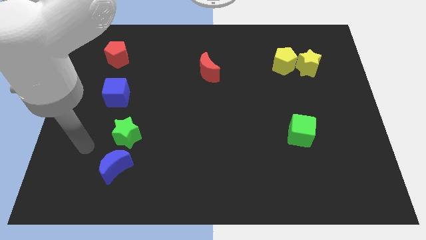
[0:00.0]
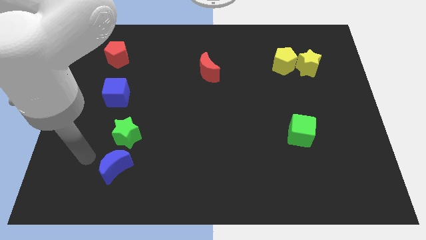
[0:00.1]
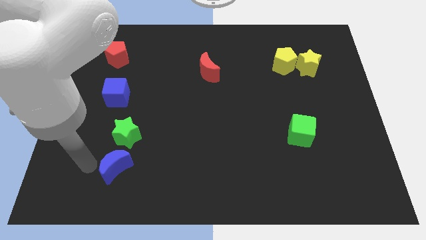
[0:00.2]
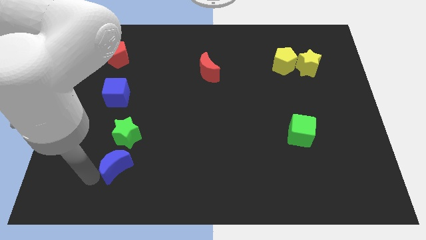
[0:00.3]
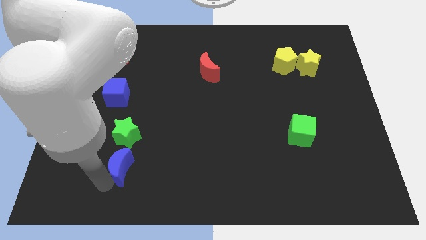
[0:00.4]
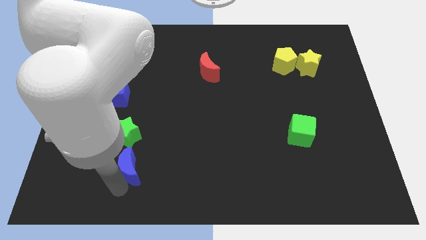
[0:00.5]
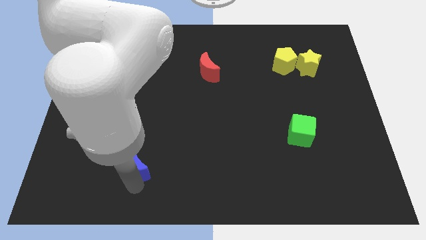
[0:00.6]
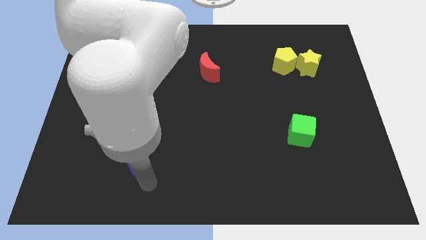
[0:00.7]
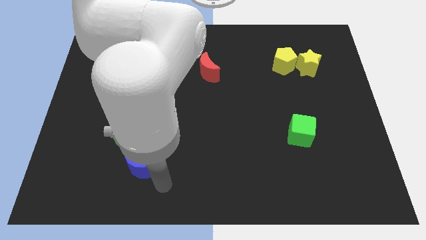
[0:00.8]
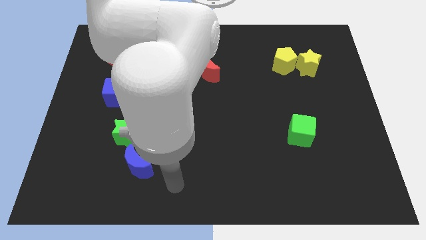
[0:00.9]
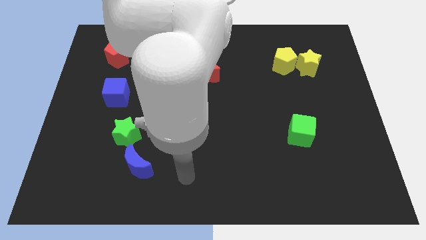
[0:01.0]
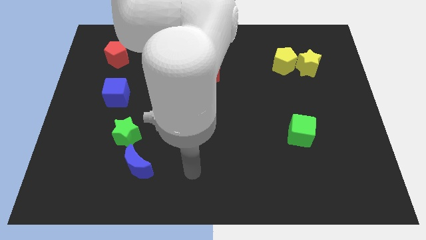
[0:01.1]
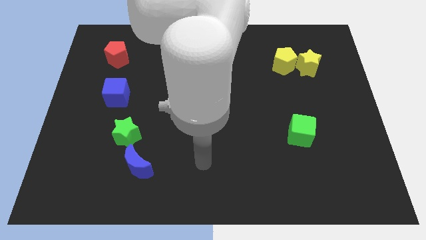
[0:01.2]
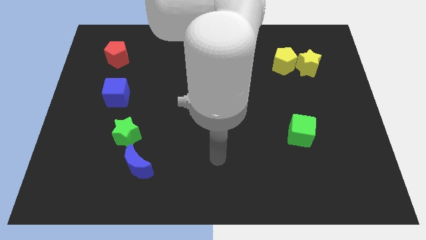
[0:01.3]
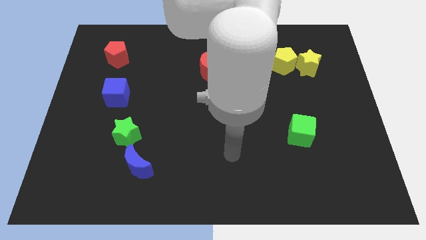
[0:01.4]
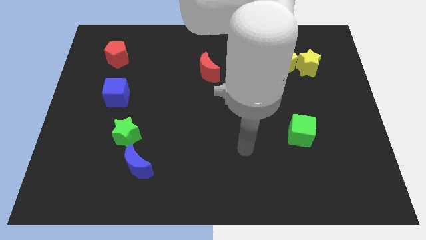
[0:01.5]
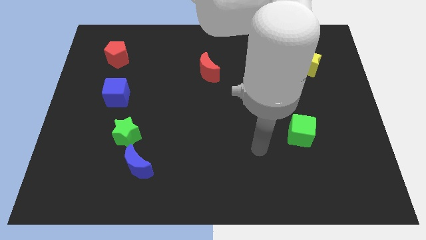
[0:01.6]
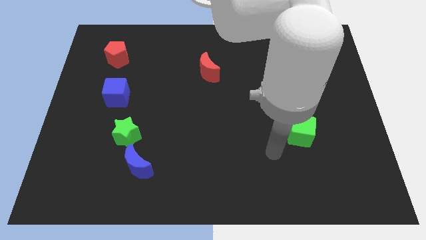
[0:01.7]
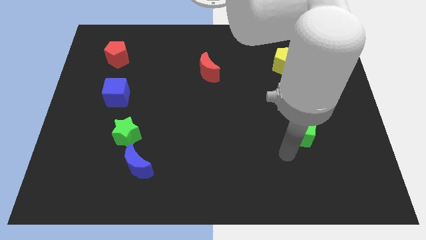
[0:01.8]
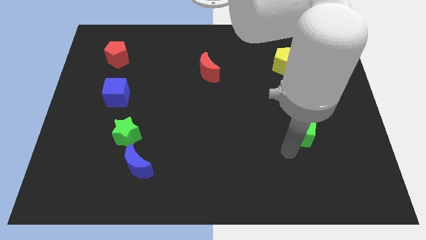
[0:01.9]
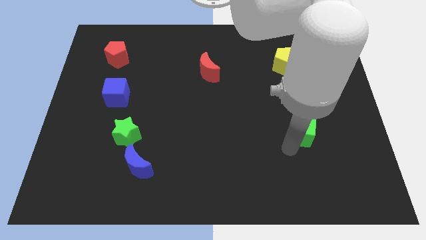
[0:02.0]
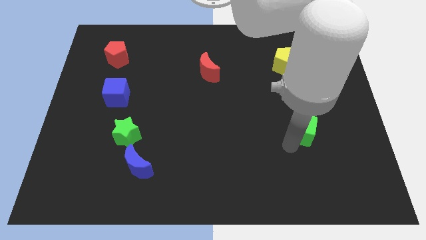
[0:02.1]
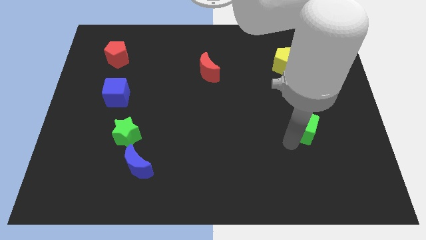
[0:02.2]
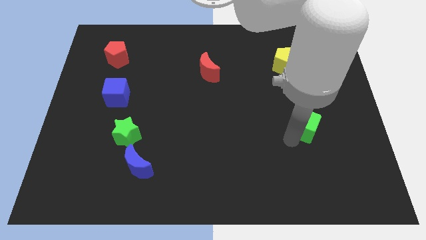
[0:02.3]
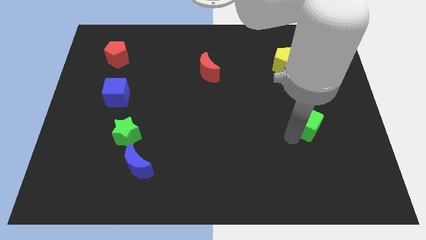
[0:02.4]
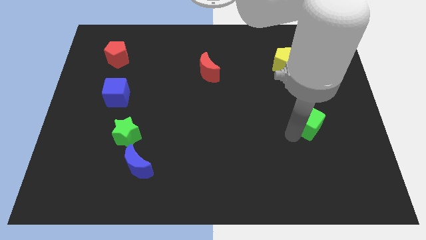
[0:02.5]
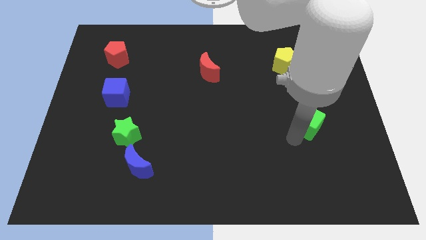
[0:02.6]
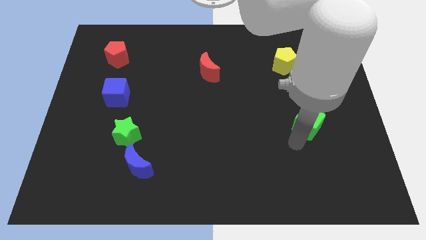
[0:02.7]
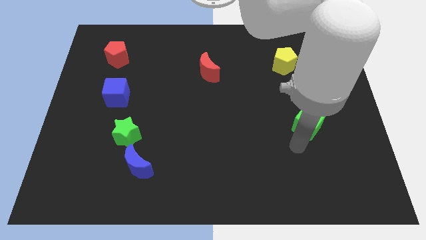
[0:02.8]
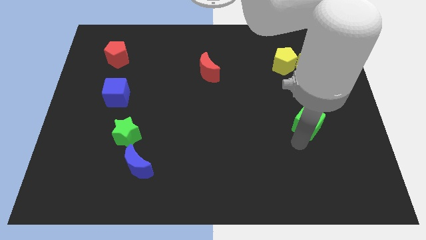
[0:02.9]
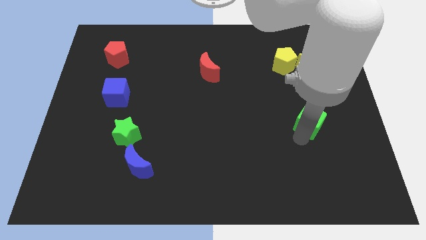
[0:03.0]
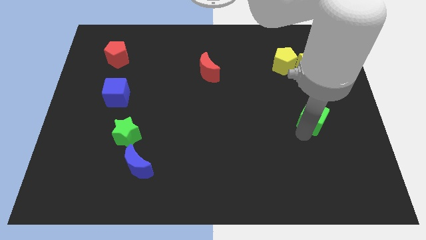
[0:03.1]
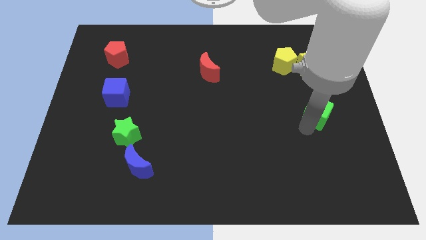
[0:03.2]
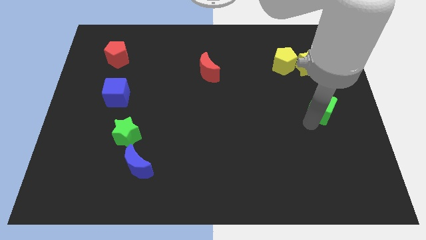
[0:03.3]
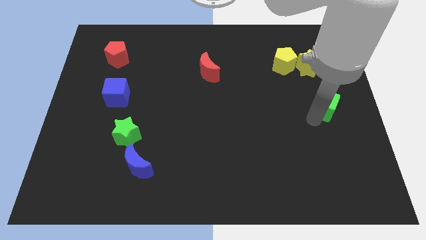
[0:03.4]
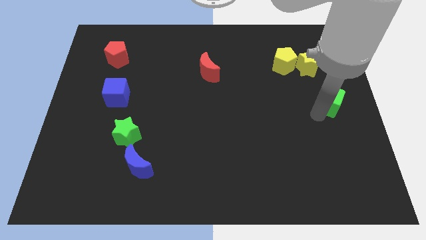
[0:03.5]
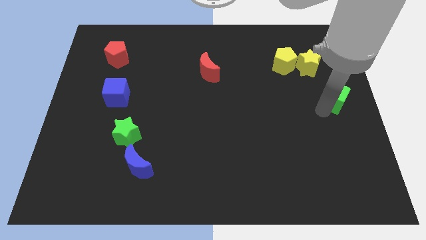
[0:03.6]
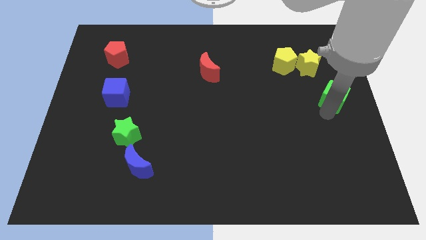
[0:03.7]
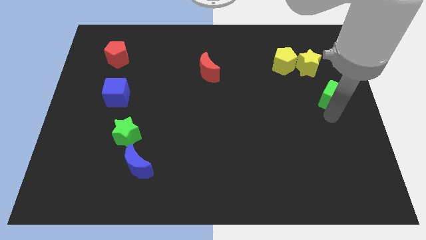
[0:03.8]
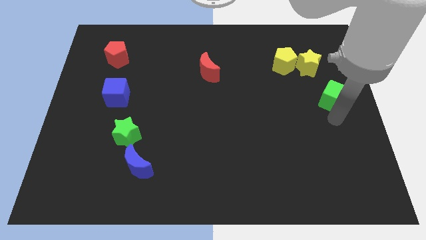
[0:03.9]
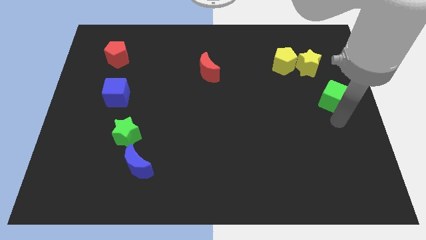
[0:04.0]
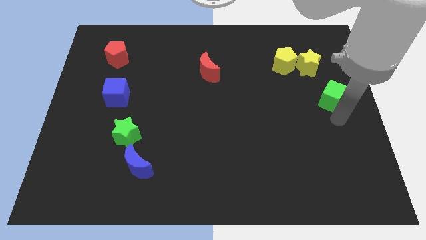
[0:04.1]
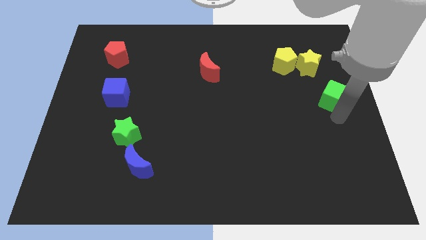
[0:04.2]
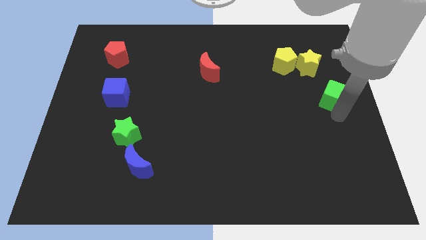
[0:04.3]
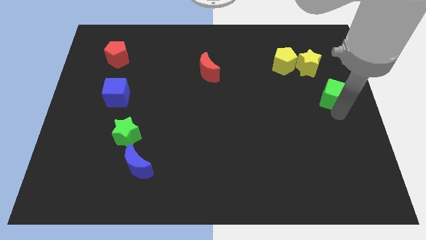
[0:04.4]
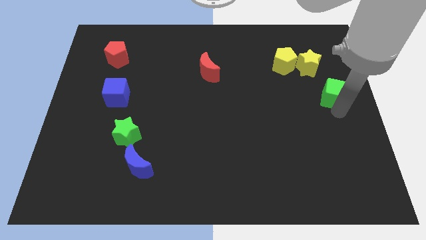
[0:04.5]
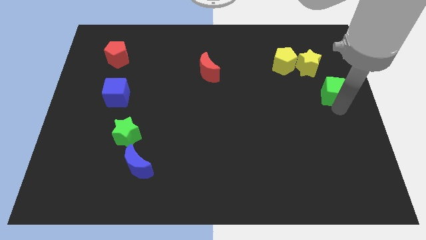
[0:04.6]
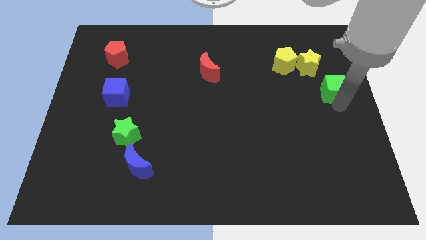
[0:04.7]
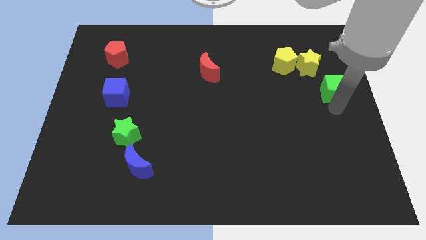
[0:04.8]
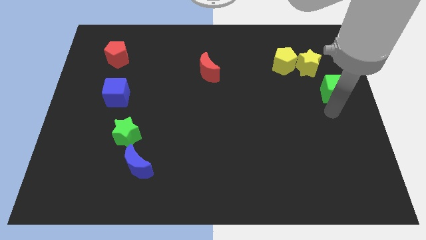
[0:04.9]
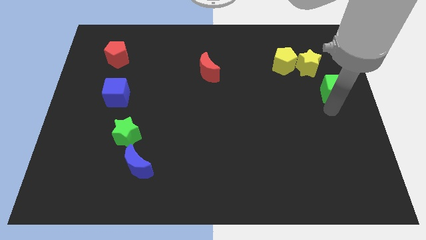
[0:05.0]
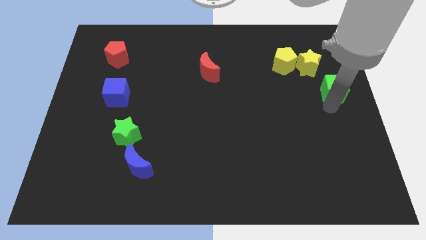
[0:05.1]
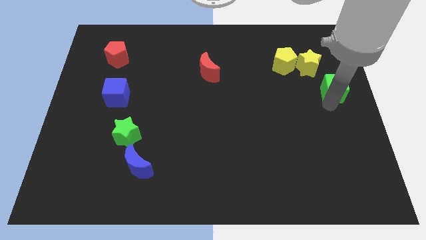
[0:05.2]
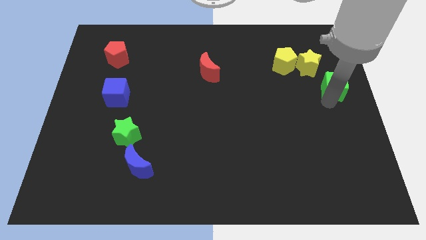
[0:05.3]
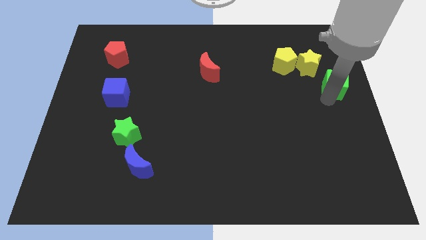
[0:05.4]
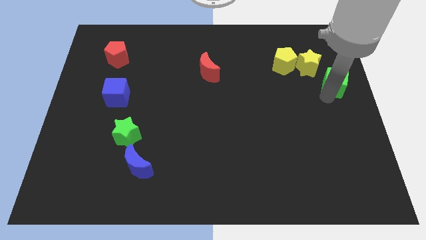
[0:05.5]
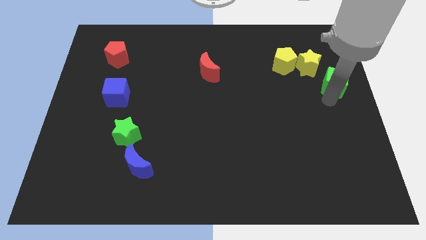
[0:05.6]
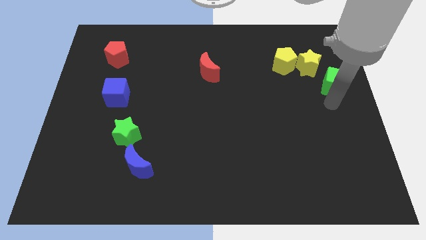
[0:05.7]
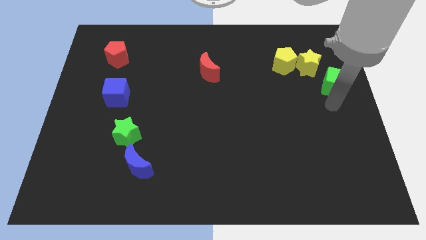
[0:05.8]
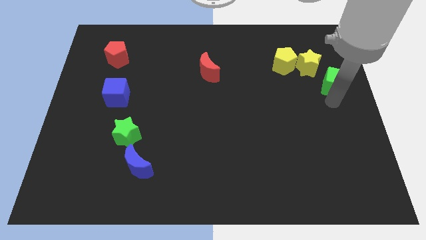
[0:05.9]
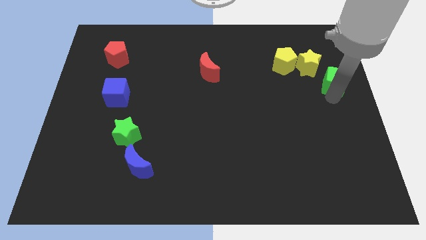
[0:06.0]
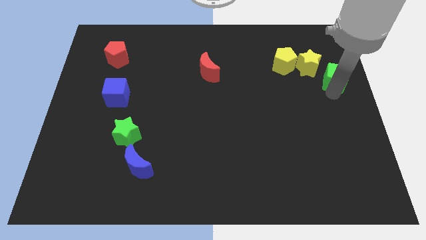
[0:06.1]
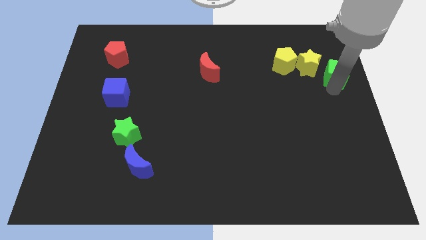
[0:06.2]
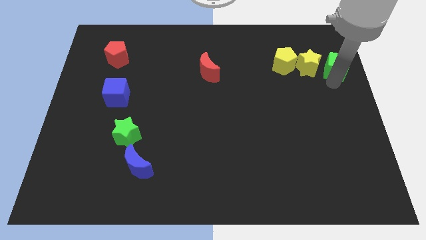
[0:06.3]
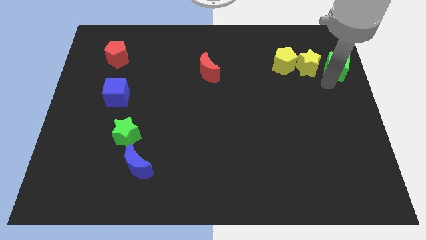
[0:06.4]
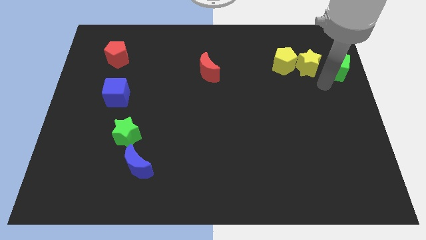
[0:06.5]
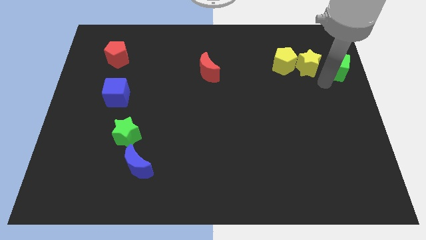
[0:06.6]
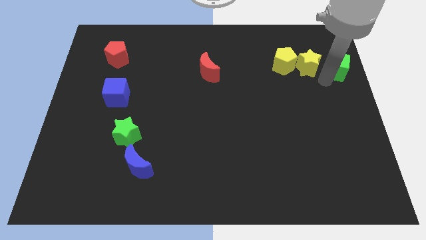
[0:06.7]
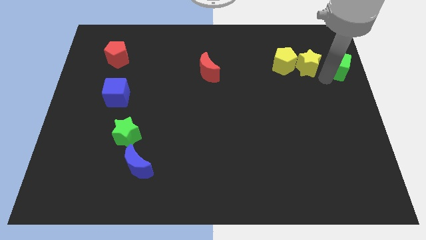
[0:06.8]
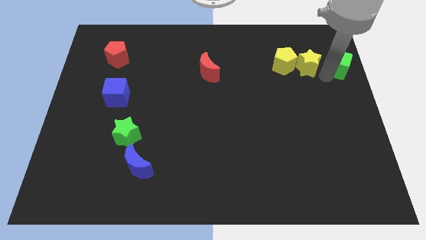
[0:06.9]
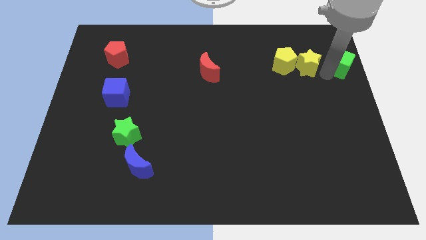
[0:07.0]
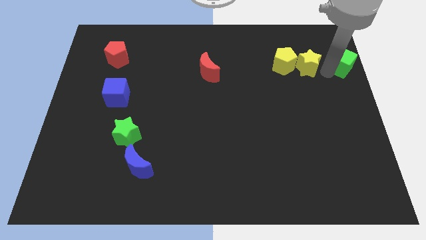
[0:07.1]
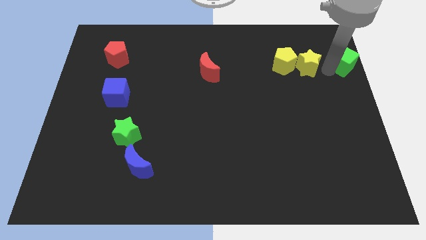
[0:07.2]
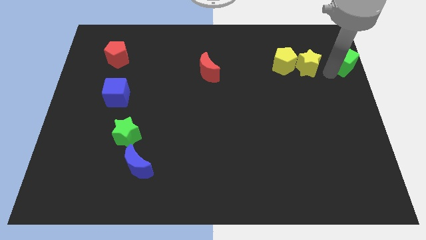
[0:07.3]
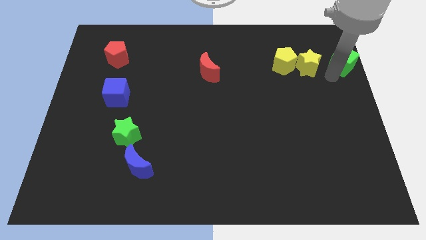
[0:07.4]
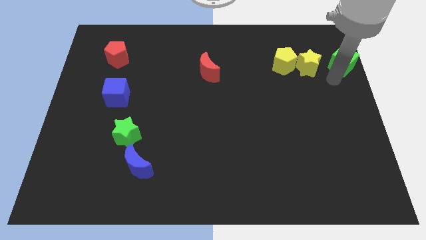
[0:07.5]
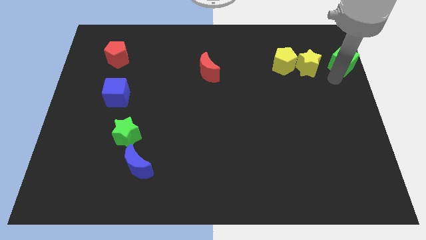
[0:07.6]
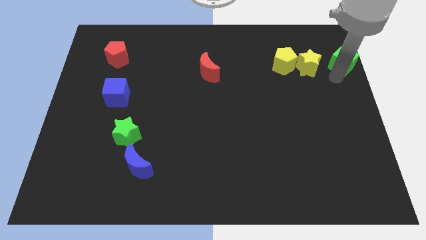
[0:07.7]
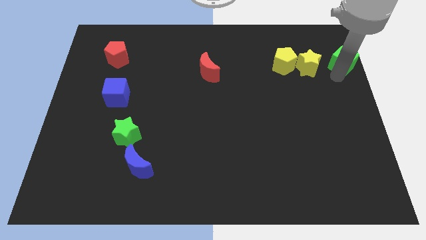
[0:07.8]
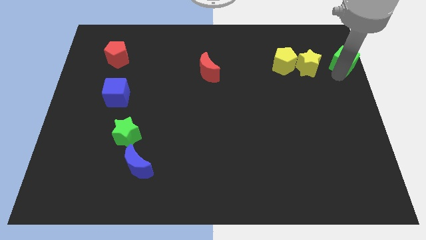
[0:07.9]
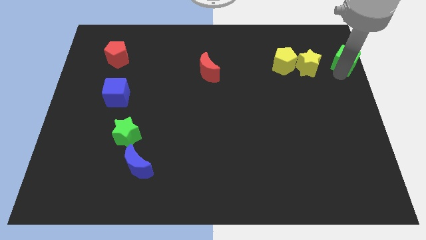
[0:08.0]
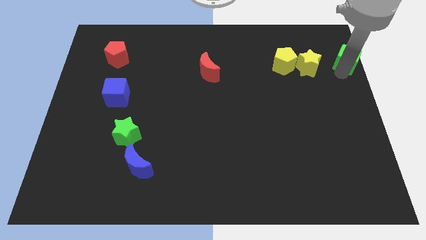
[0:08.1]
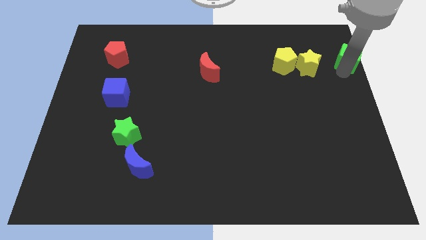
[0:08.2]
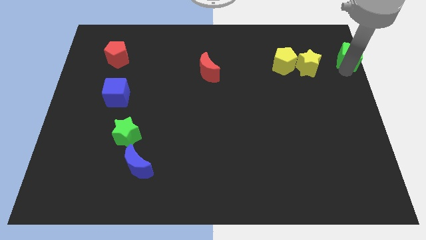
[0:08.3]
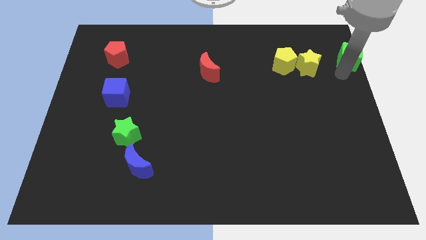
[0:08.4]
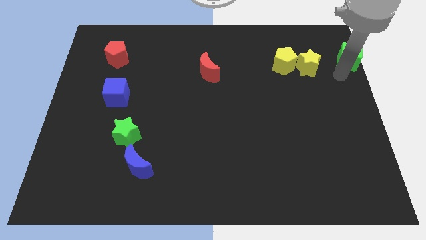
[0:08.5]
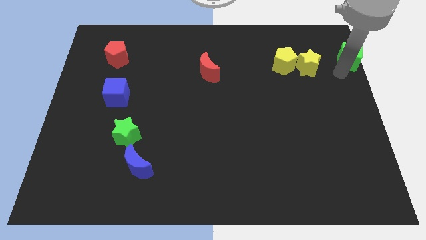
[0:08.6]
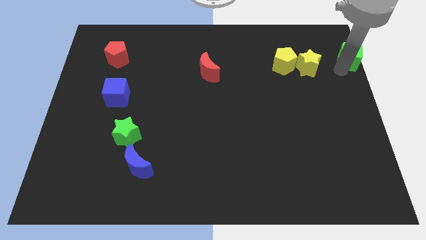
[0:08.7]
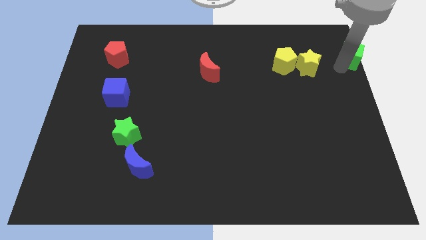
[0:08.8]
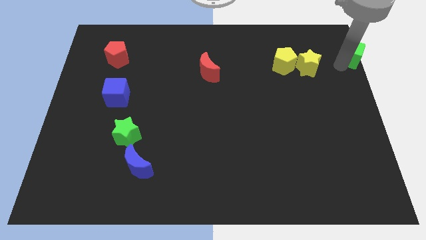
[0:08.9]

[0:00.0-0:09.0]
slide the green cube to the top right corner
